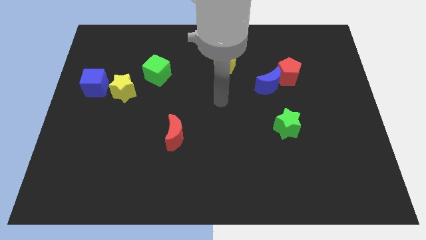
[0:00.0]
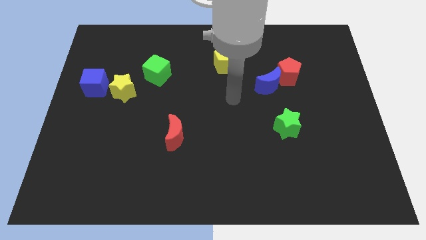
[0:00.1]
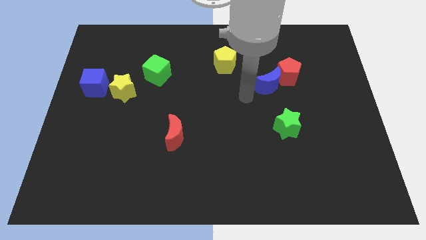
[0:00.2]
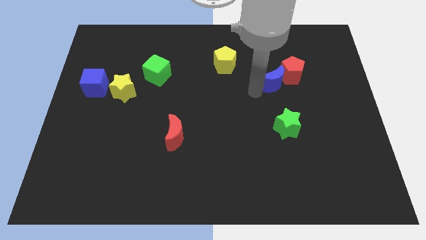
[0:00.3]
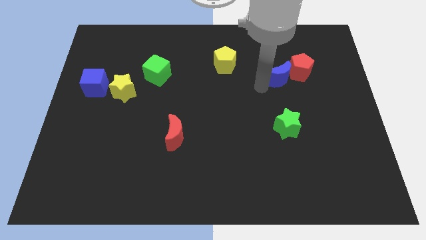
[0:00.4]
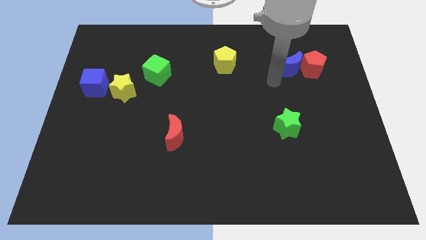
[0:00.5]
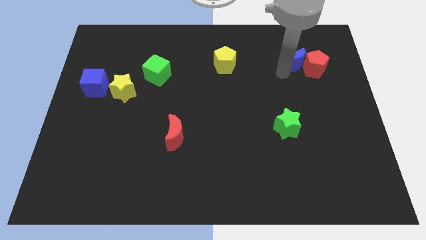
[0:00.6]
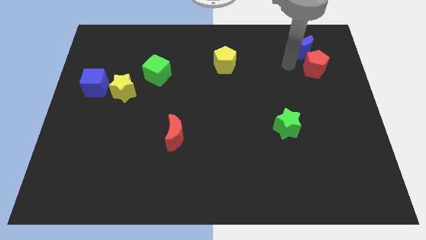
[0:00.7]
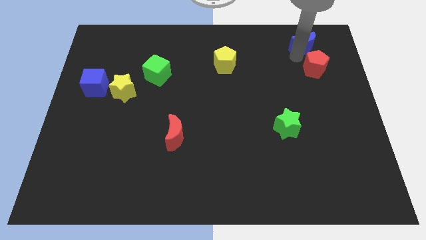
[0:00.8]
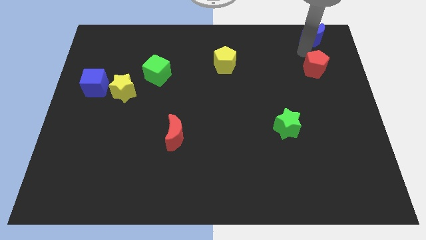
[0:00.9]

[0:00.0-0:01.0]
separate the red pentagon from the blue moon

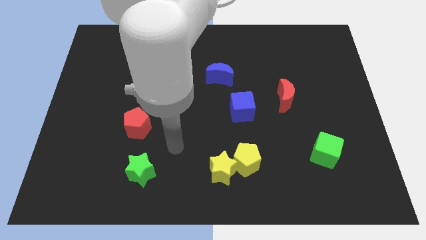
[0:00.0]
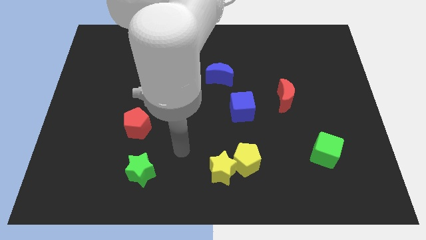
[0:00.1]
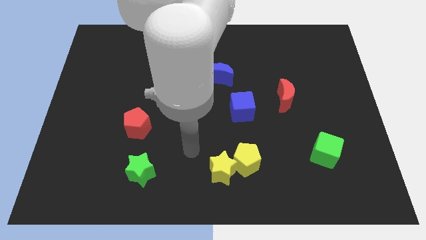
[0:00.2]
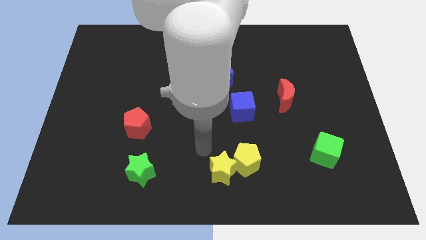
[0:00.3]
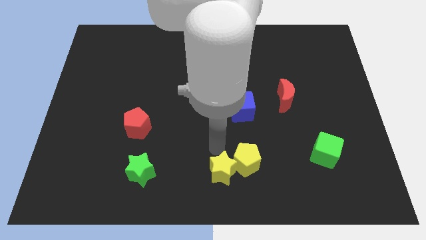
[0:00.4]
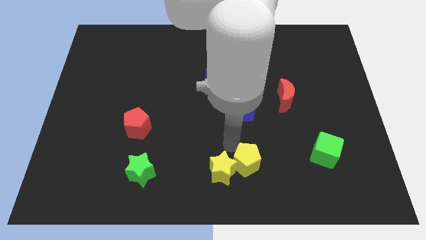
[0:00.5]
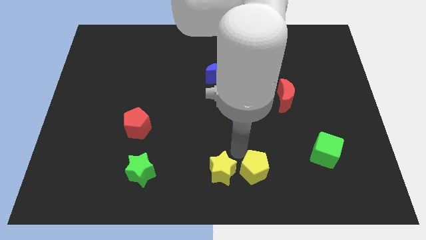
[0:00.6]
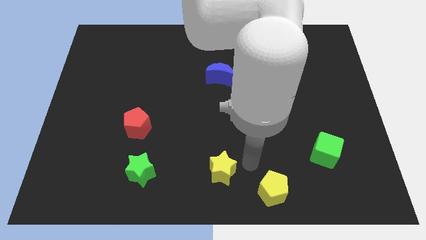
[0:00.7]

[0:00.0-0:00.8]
move the yellow star away from the yellow pentagon

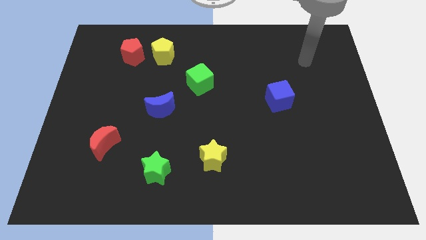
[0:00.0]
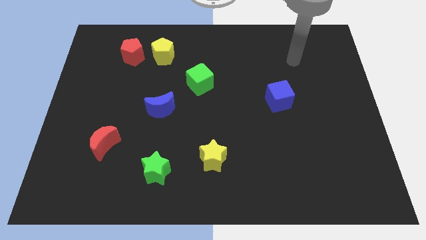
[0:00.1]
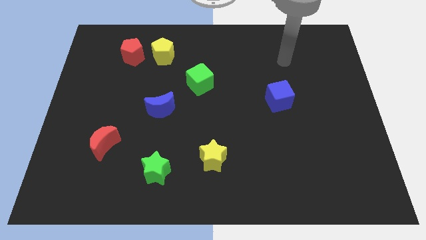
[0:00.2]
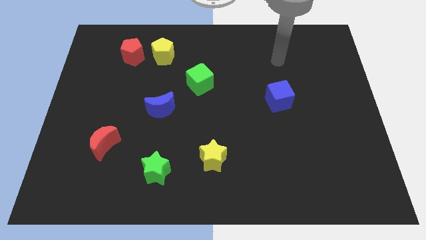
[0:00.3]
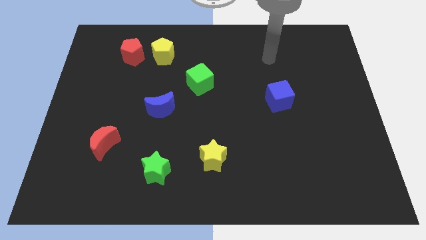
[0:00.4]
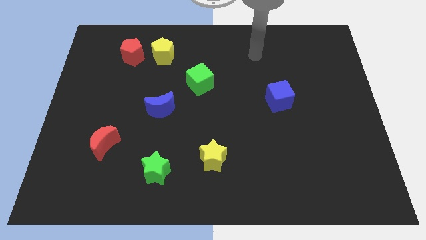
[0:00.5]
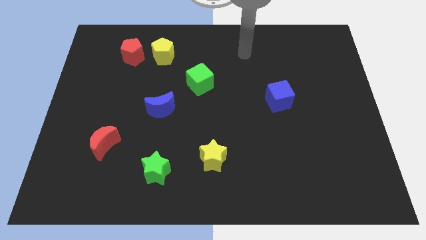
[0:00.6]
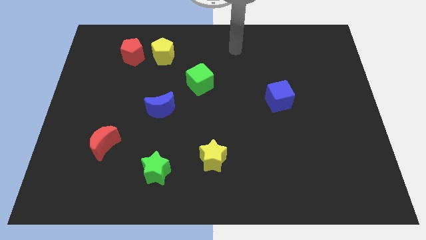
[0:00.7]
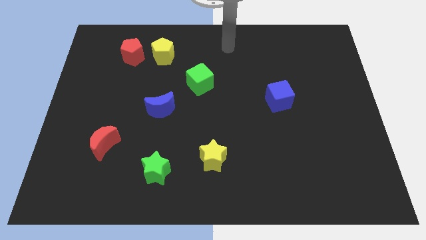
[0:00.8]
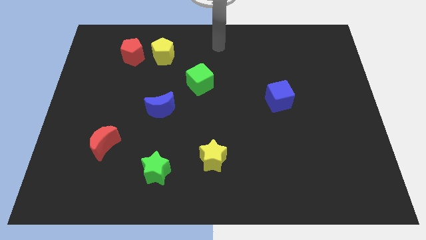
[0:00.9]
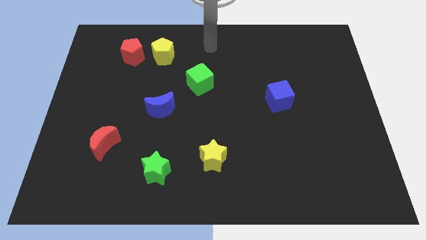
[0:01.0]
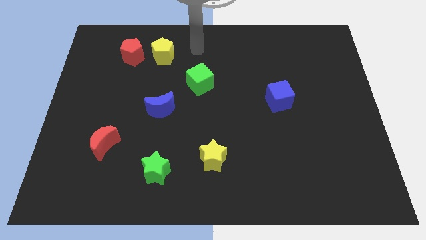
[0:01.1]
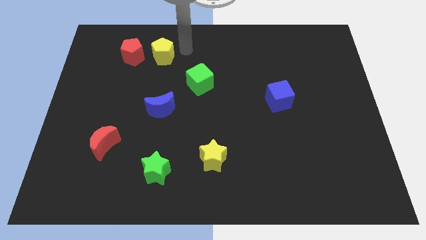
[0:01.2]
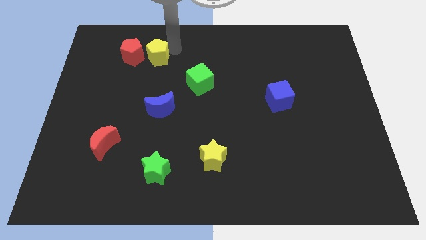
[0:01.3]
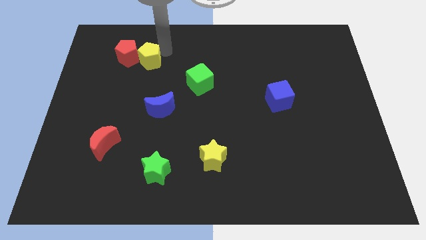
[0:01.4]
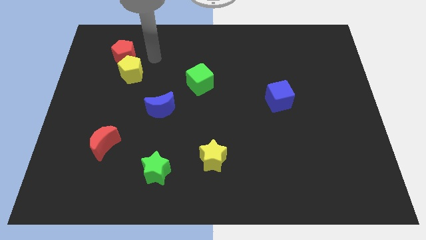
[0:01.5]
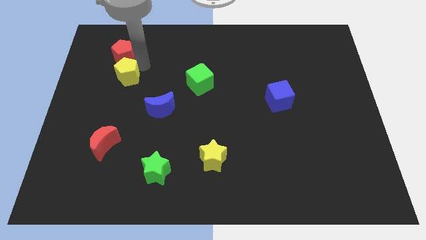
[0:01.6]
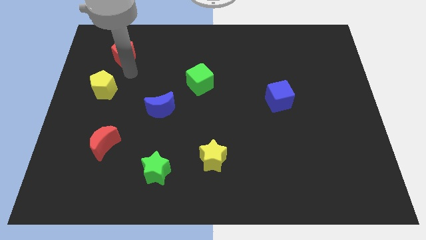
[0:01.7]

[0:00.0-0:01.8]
pull the red pentagon apart from the yellow pentagon

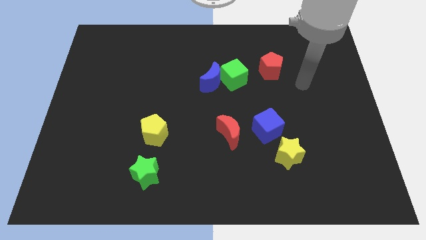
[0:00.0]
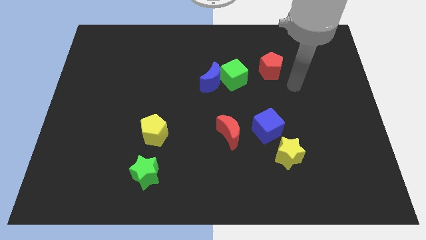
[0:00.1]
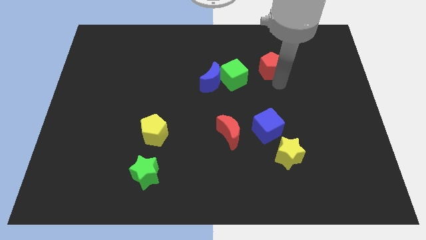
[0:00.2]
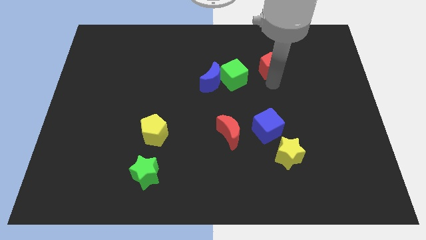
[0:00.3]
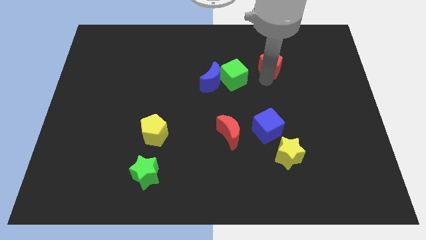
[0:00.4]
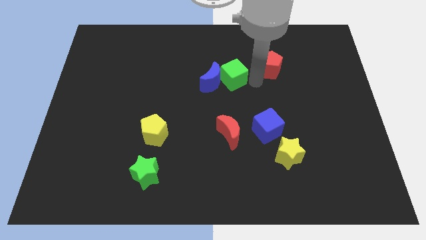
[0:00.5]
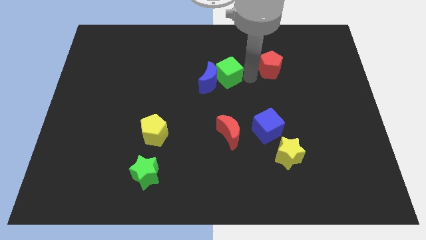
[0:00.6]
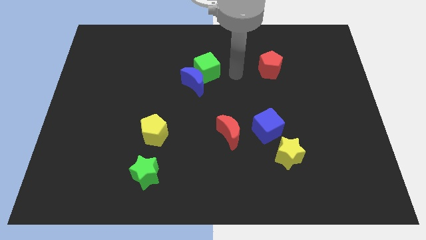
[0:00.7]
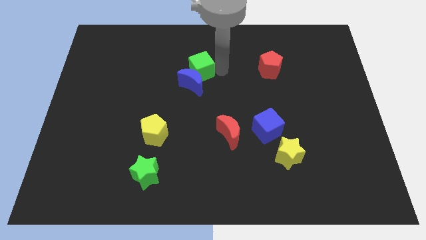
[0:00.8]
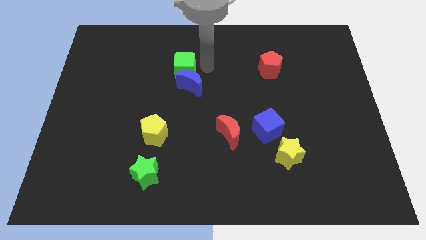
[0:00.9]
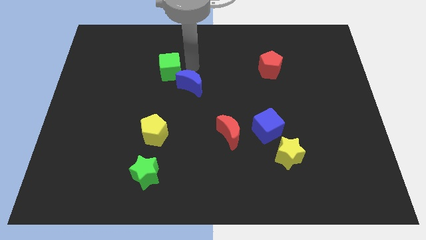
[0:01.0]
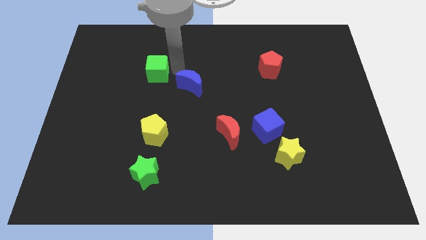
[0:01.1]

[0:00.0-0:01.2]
pull the blue moon apart from the green cube

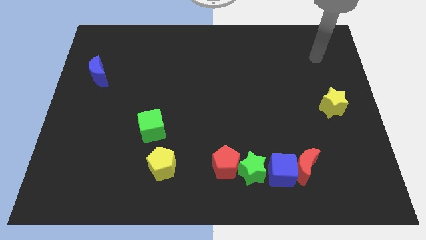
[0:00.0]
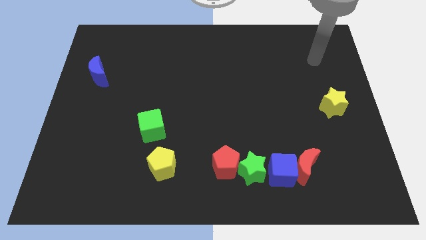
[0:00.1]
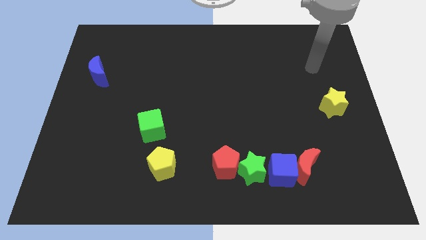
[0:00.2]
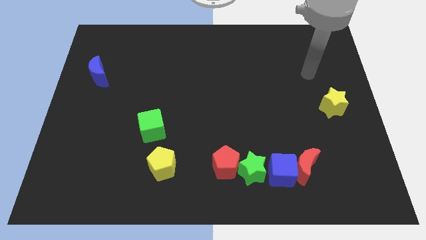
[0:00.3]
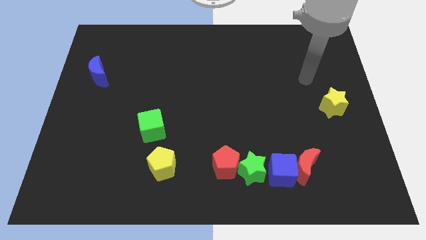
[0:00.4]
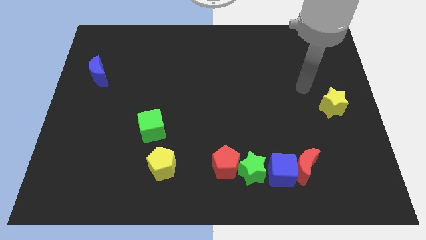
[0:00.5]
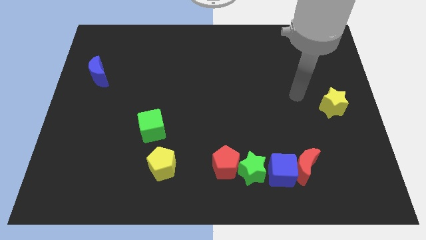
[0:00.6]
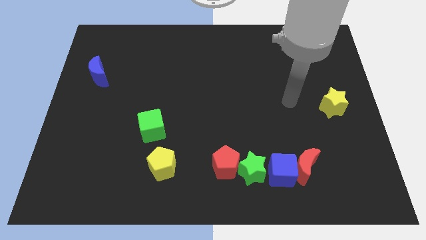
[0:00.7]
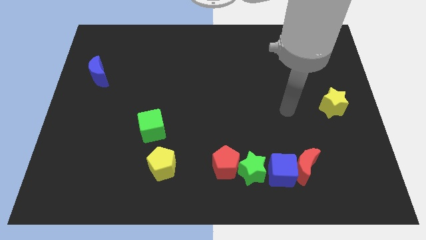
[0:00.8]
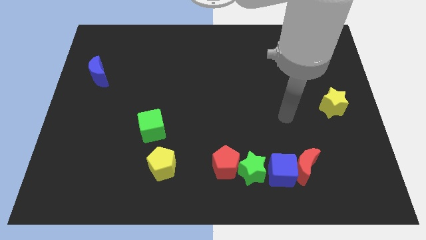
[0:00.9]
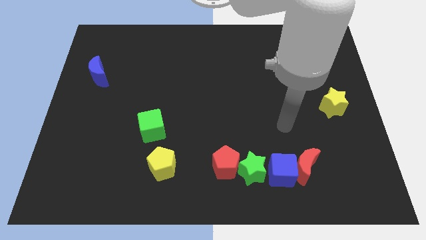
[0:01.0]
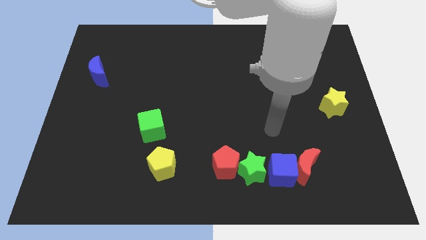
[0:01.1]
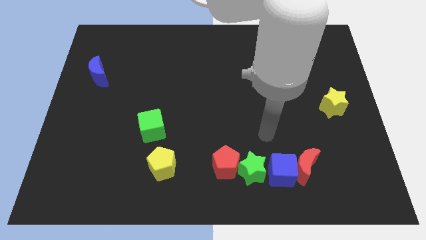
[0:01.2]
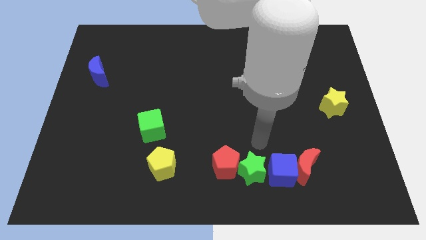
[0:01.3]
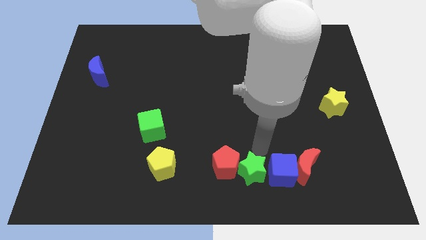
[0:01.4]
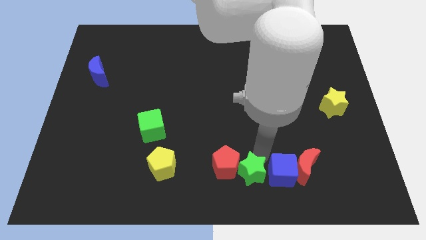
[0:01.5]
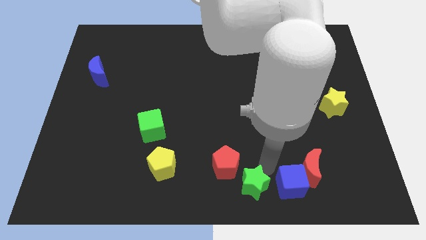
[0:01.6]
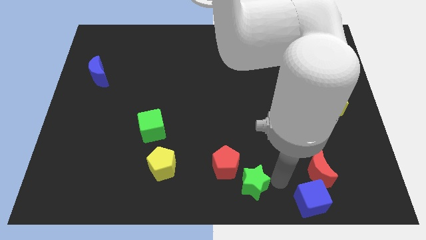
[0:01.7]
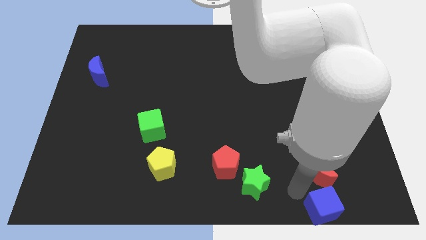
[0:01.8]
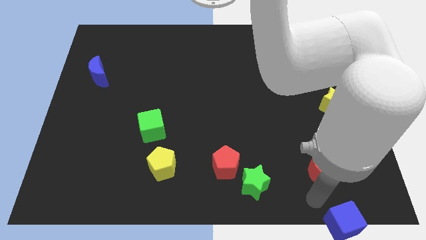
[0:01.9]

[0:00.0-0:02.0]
separate the red moon from the blue cube

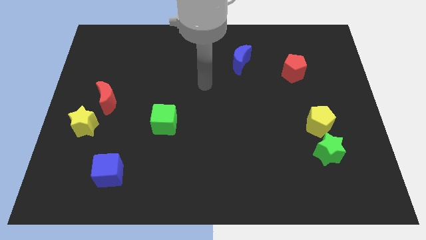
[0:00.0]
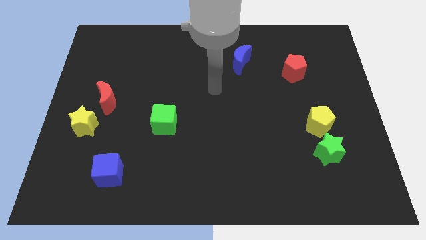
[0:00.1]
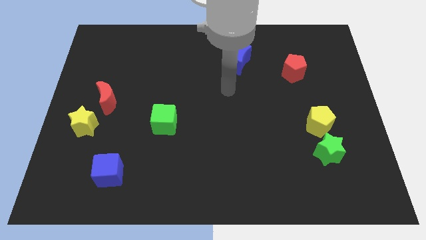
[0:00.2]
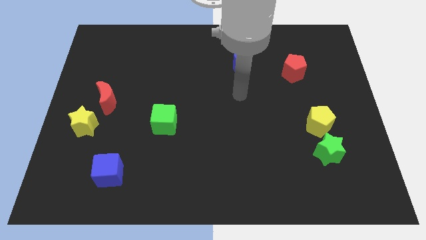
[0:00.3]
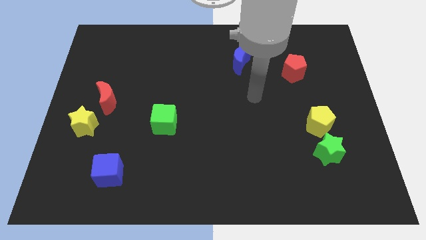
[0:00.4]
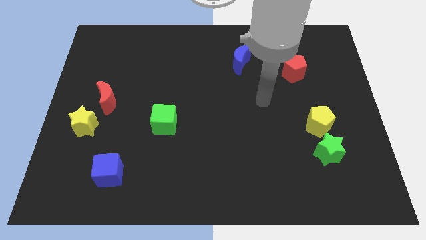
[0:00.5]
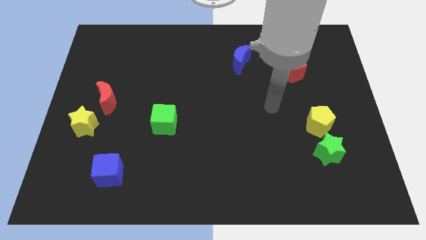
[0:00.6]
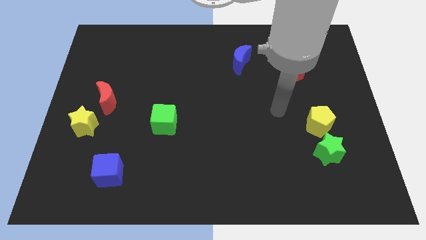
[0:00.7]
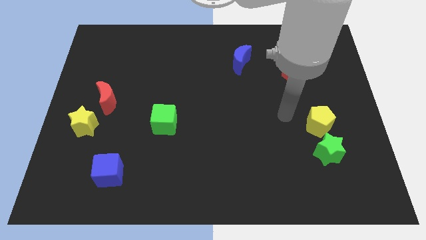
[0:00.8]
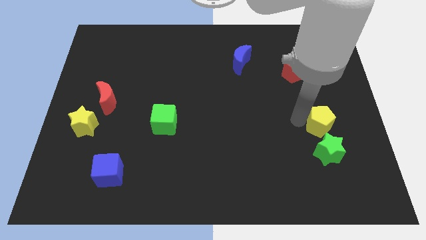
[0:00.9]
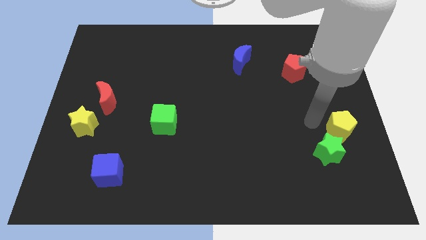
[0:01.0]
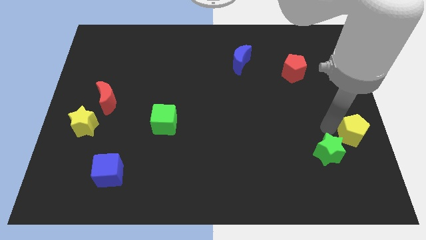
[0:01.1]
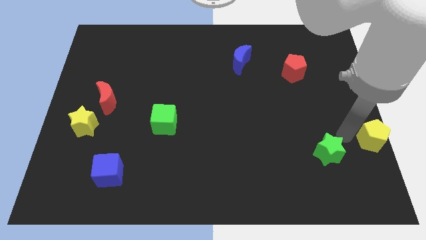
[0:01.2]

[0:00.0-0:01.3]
move the green star away from the yellow pentagon

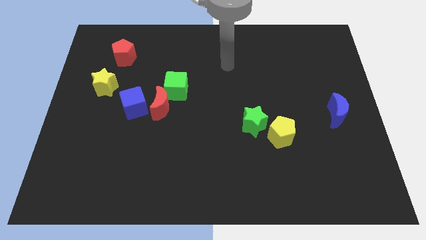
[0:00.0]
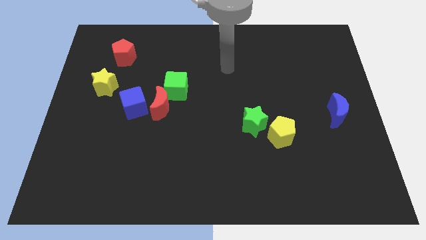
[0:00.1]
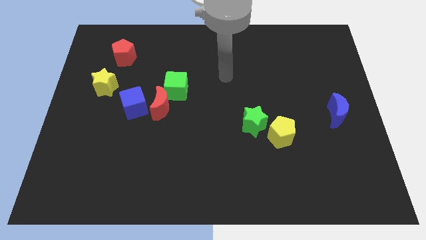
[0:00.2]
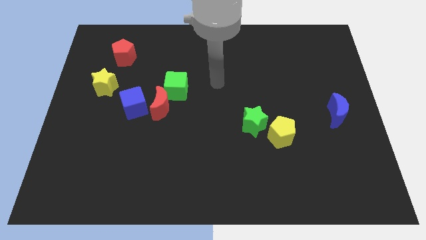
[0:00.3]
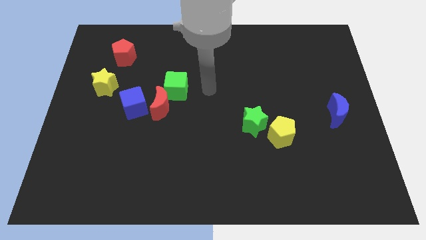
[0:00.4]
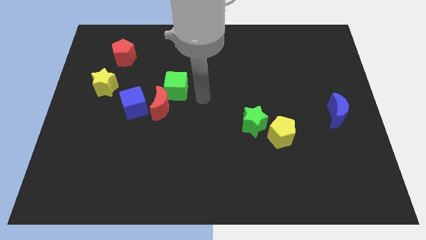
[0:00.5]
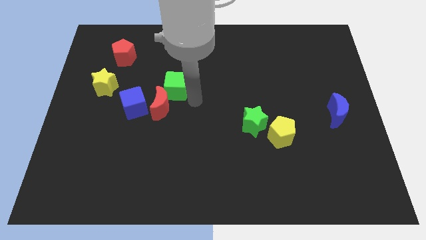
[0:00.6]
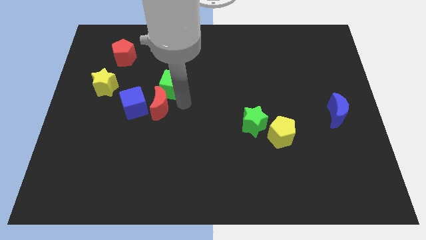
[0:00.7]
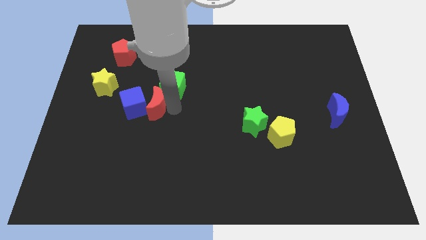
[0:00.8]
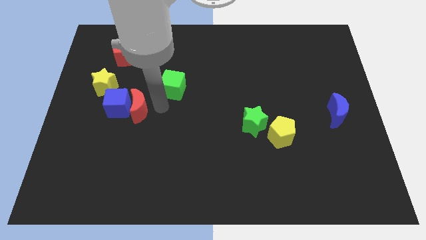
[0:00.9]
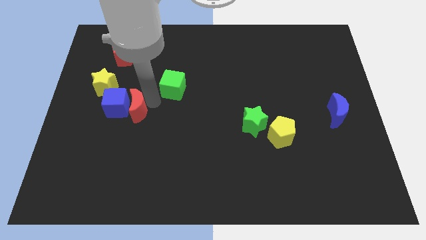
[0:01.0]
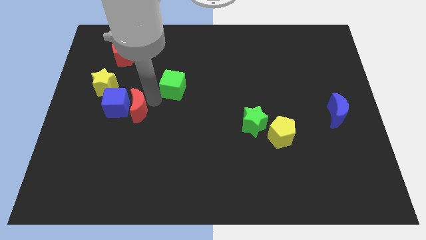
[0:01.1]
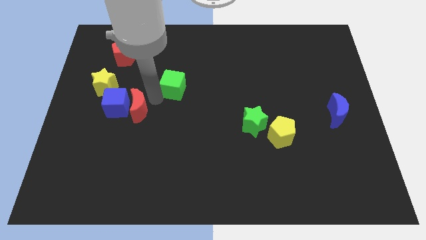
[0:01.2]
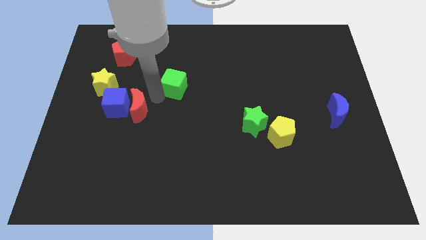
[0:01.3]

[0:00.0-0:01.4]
pull the green cube apart from the red moon
